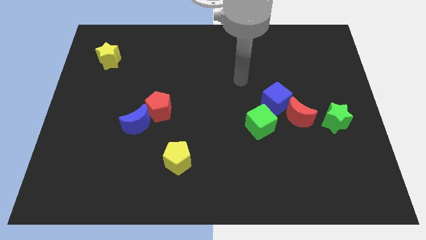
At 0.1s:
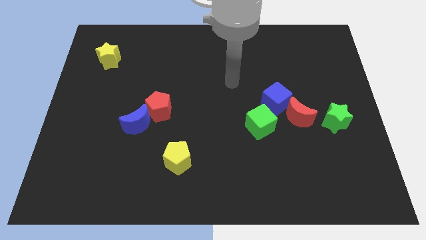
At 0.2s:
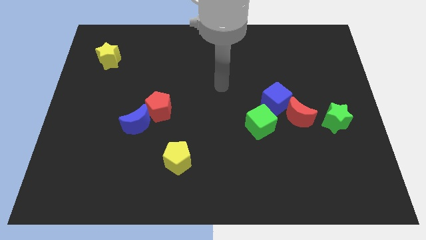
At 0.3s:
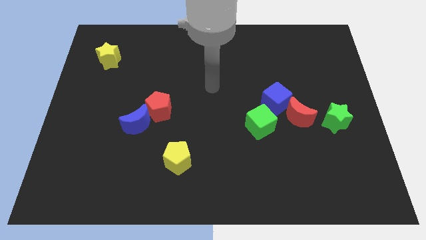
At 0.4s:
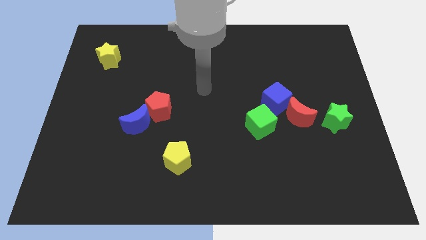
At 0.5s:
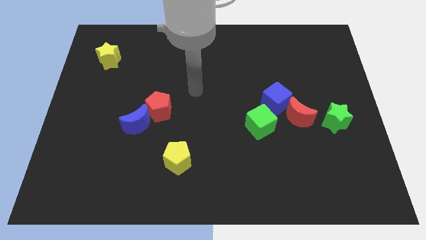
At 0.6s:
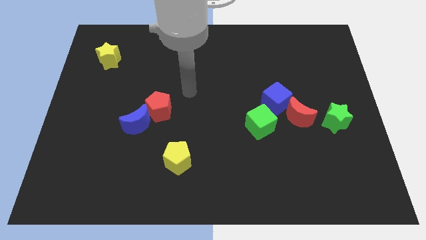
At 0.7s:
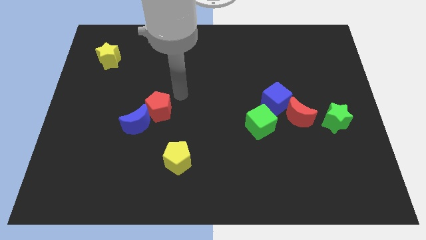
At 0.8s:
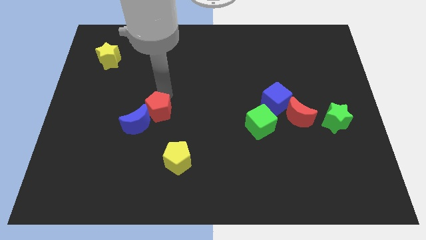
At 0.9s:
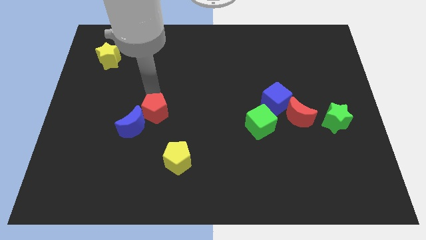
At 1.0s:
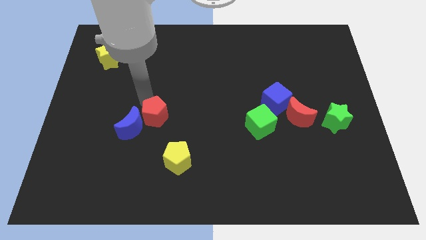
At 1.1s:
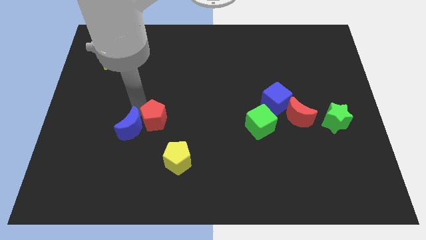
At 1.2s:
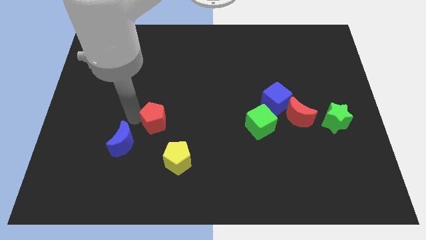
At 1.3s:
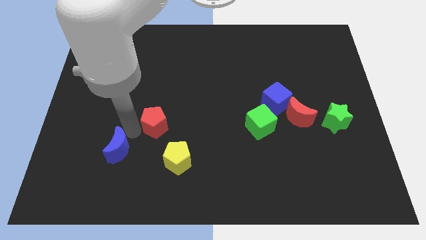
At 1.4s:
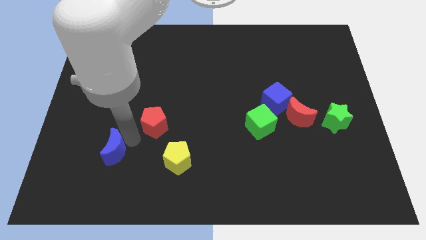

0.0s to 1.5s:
pull the red pentagon apart from the blue moon

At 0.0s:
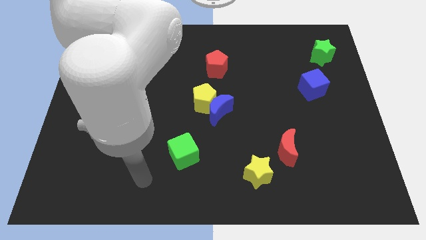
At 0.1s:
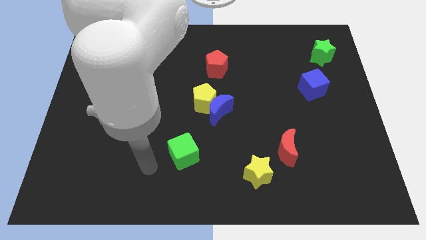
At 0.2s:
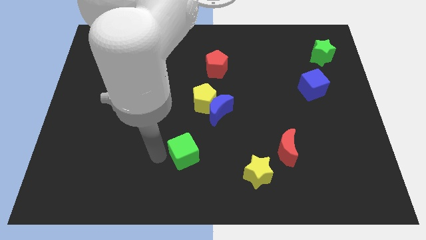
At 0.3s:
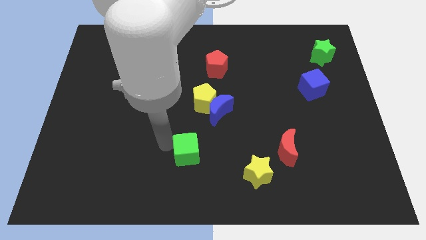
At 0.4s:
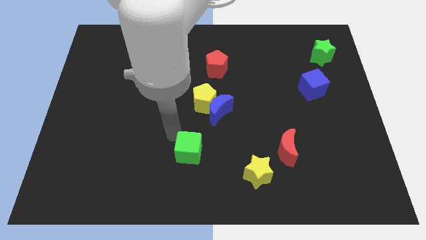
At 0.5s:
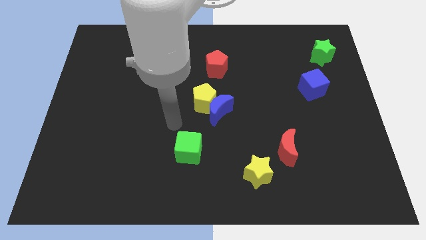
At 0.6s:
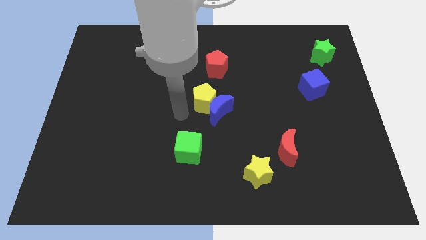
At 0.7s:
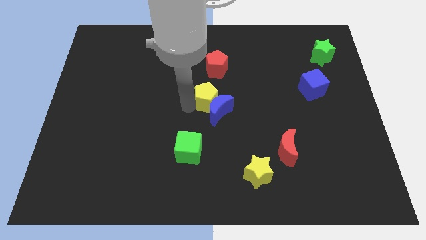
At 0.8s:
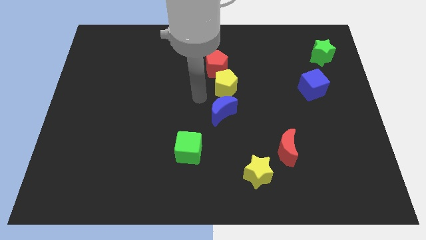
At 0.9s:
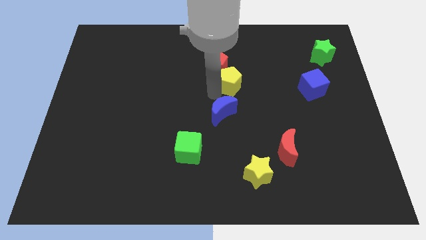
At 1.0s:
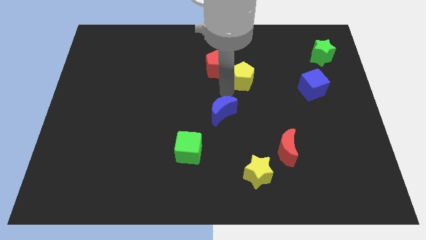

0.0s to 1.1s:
move the blue moon away from the yellow pentagon

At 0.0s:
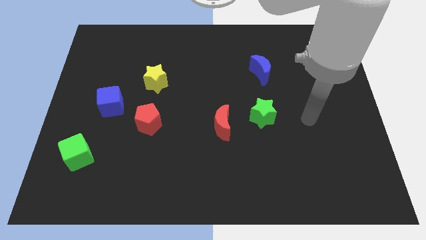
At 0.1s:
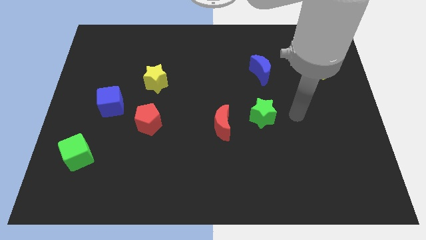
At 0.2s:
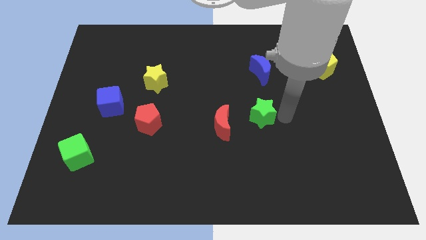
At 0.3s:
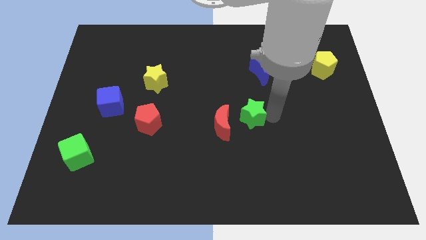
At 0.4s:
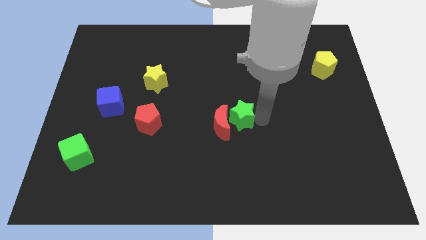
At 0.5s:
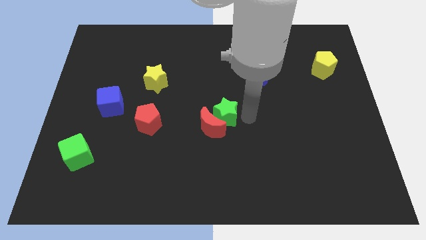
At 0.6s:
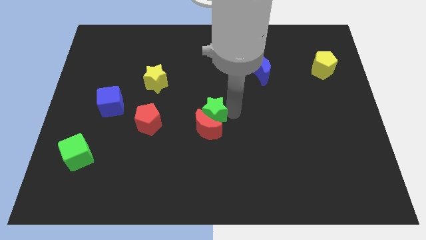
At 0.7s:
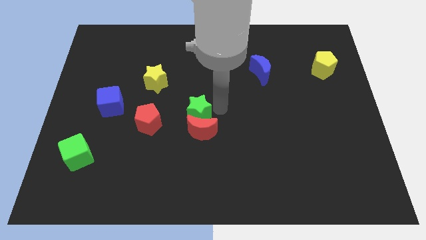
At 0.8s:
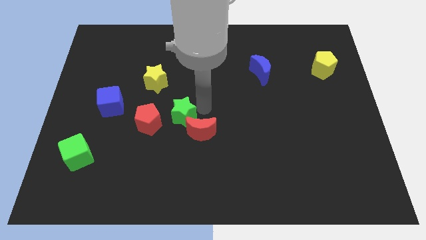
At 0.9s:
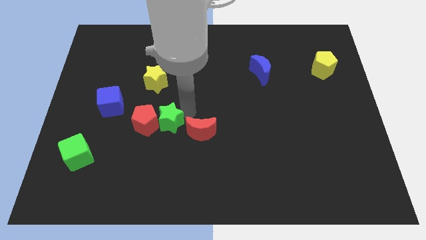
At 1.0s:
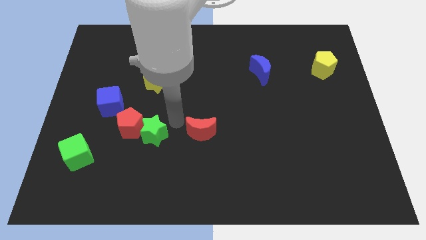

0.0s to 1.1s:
move the red moon away from the green star

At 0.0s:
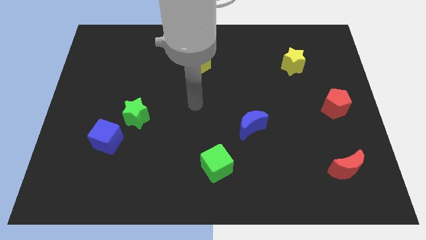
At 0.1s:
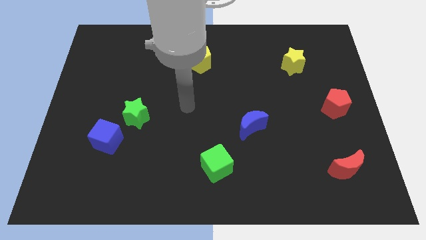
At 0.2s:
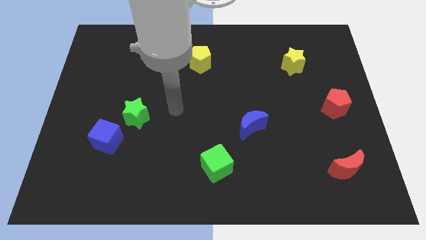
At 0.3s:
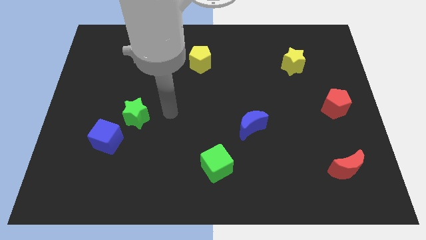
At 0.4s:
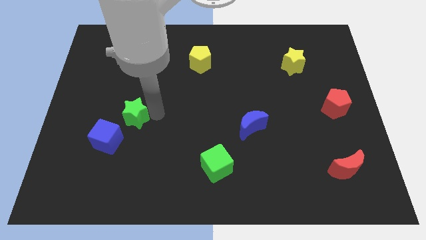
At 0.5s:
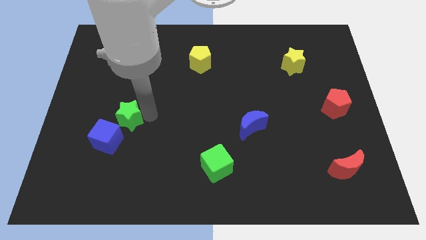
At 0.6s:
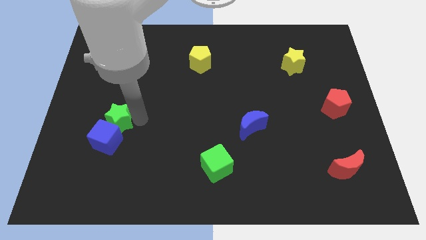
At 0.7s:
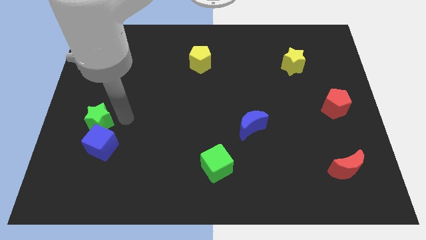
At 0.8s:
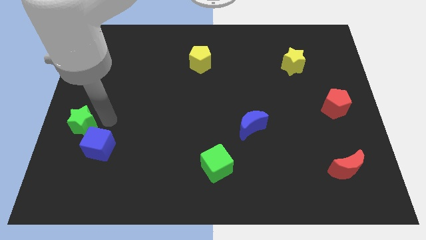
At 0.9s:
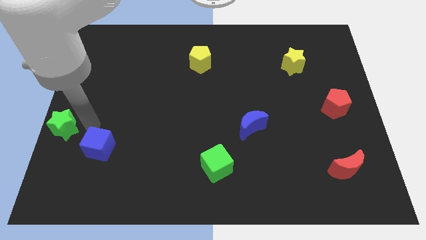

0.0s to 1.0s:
move the blue cube away from the green star

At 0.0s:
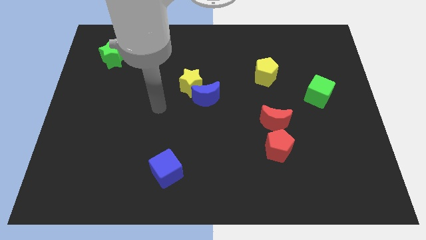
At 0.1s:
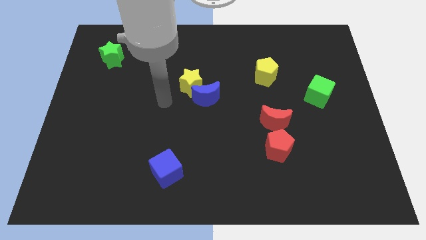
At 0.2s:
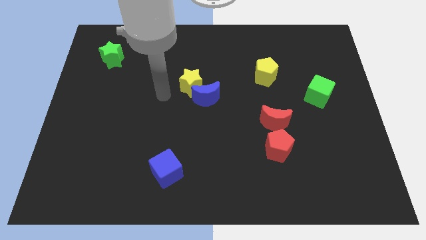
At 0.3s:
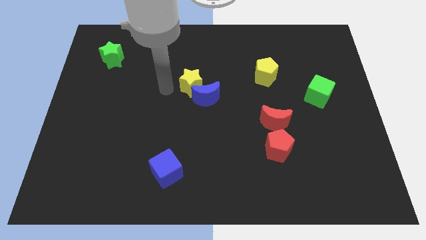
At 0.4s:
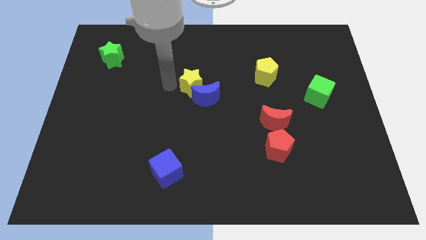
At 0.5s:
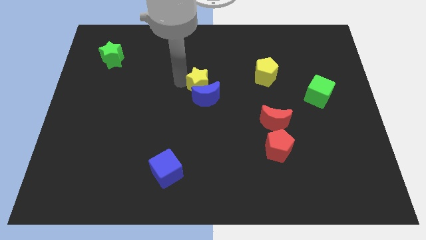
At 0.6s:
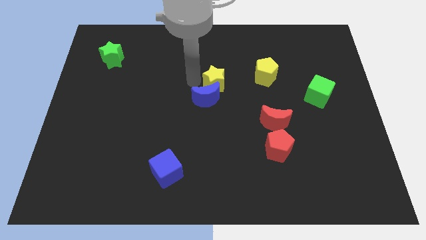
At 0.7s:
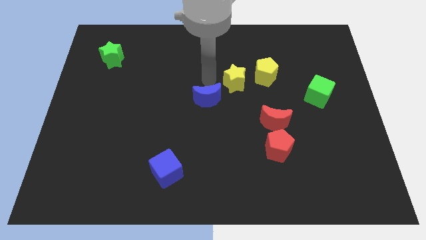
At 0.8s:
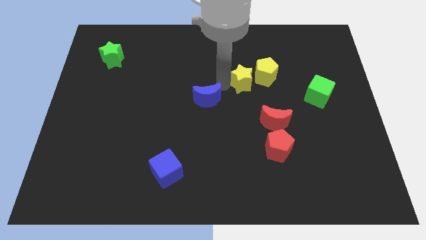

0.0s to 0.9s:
separate the blue moon from the yellow star

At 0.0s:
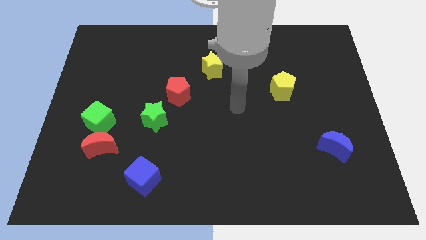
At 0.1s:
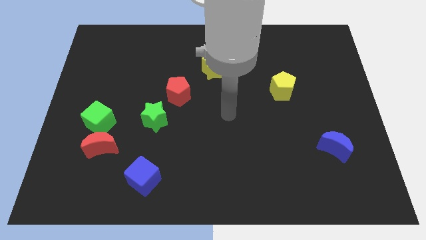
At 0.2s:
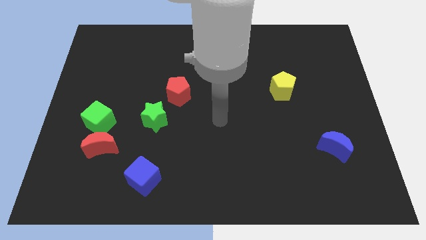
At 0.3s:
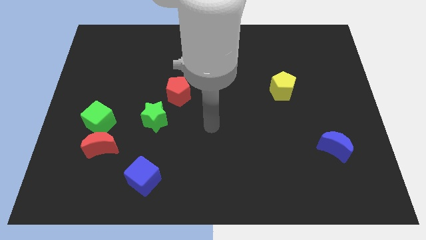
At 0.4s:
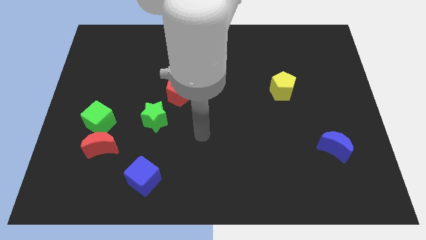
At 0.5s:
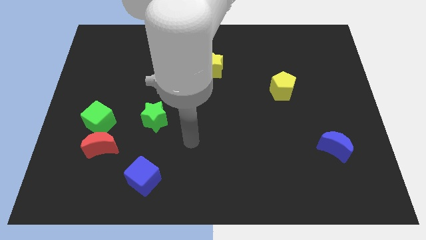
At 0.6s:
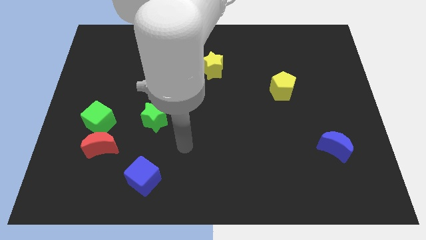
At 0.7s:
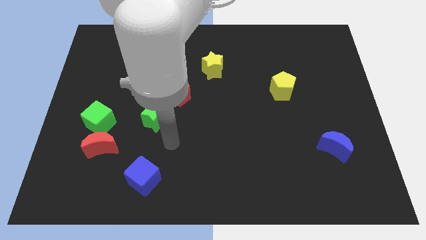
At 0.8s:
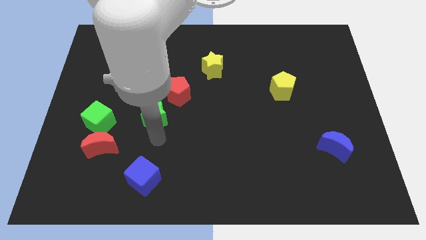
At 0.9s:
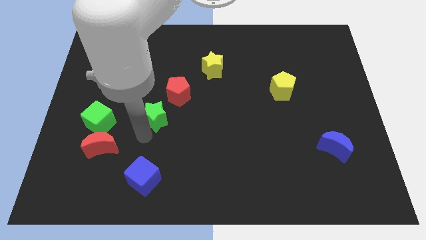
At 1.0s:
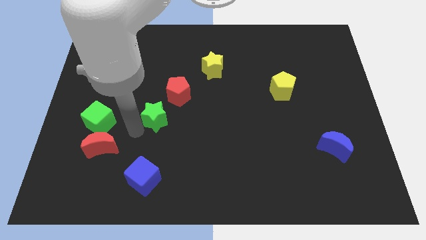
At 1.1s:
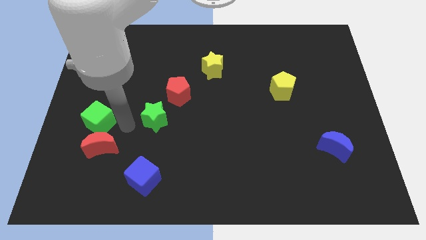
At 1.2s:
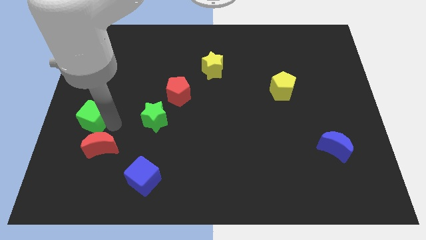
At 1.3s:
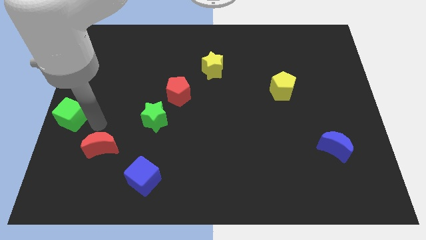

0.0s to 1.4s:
separate the red moon from the green cube

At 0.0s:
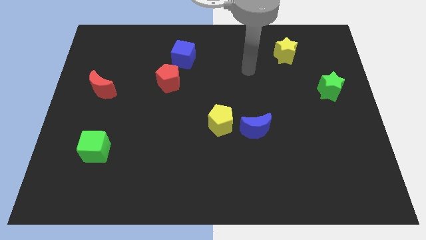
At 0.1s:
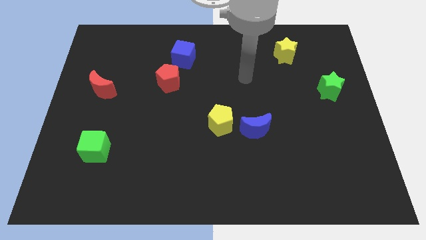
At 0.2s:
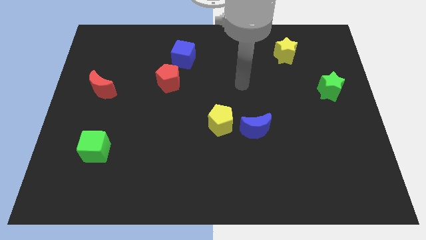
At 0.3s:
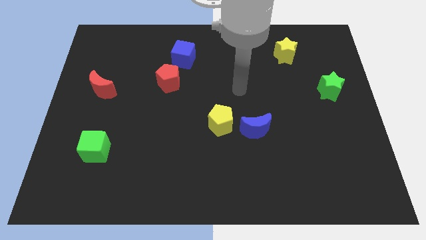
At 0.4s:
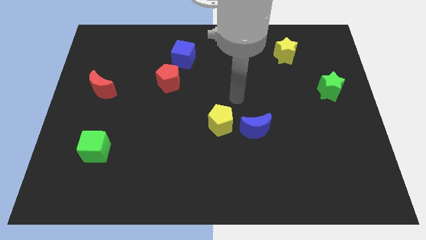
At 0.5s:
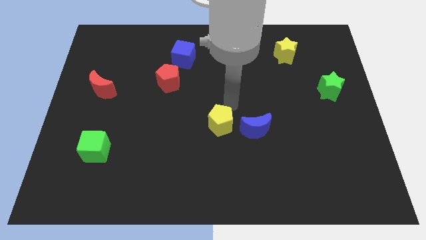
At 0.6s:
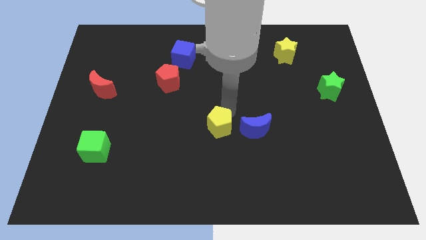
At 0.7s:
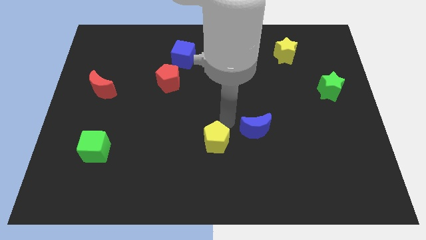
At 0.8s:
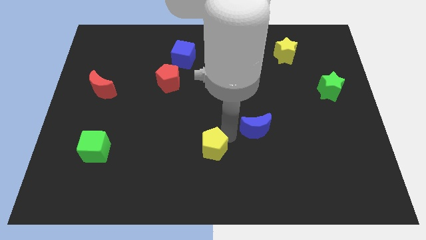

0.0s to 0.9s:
pull the blue moon apart from the yellow pentagon

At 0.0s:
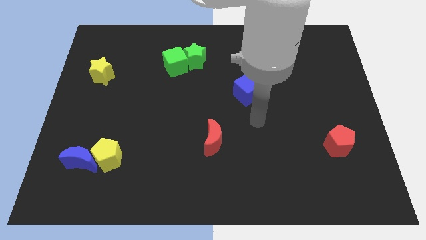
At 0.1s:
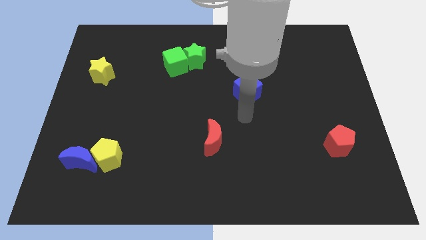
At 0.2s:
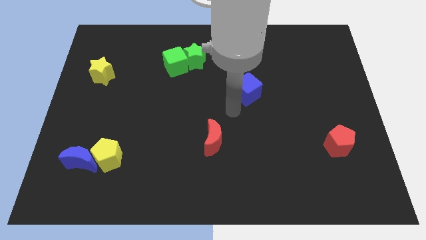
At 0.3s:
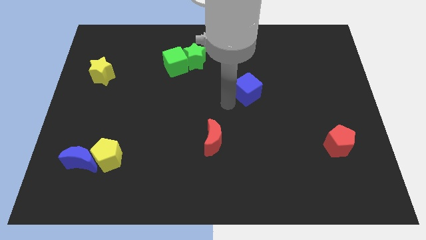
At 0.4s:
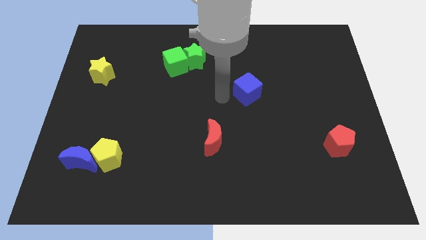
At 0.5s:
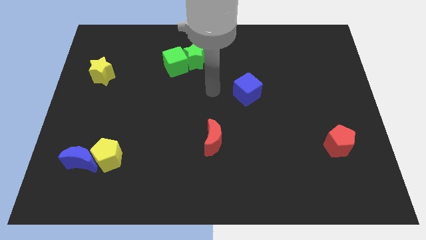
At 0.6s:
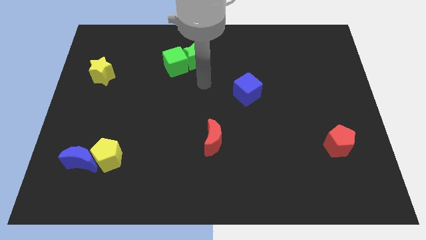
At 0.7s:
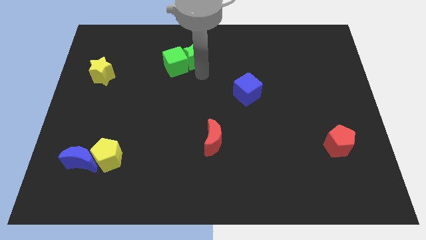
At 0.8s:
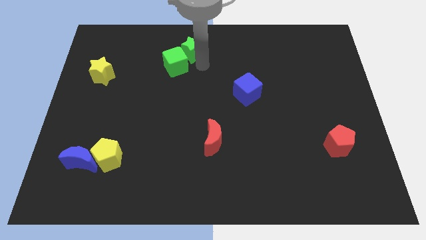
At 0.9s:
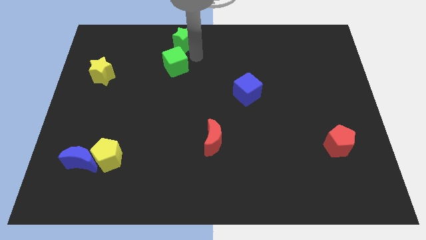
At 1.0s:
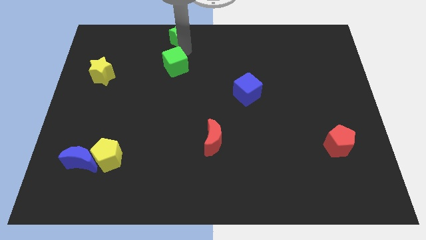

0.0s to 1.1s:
pull the green cube apart from the green star

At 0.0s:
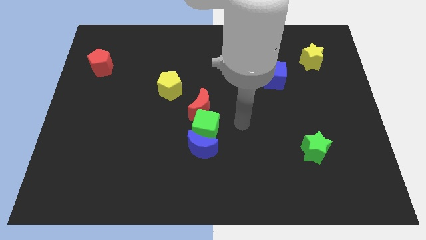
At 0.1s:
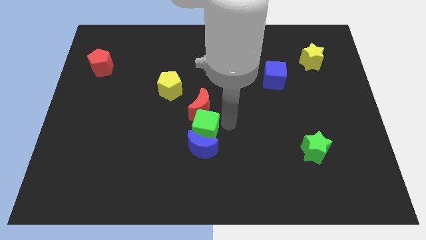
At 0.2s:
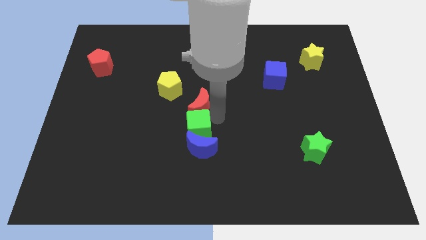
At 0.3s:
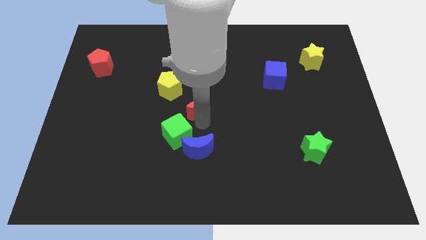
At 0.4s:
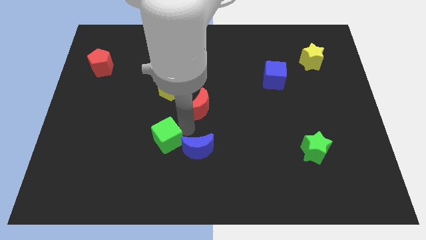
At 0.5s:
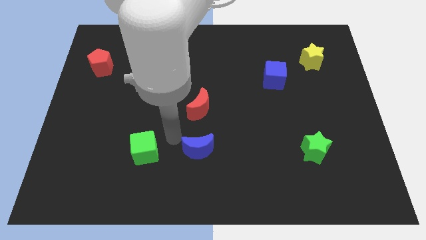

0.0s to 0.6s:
pull the blue moon apart from the green cube
